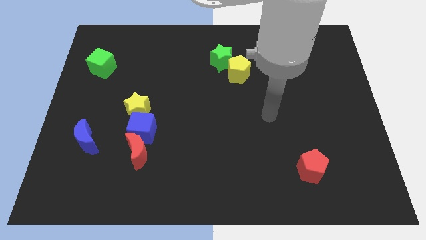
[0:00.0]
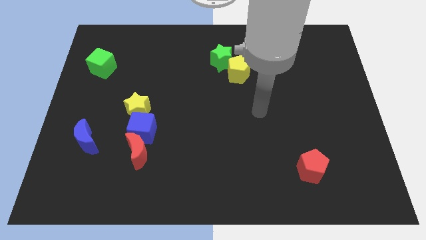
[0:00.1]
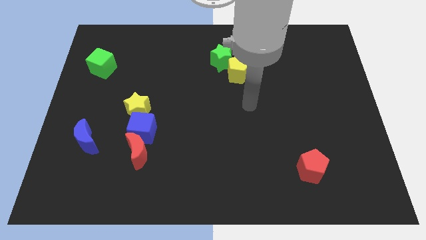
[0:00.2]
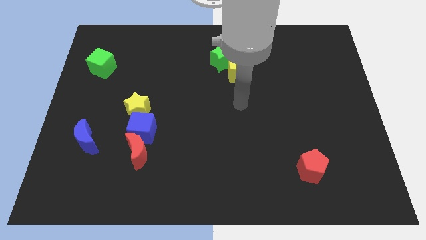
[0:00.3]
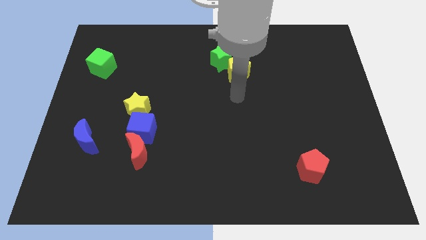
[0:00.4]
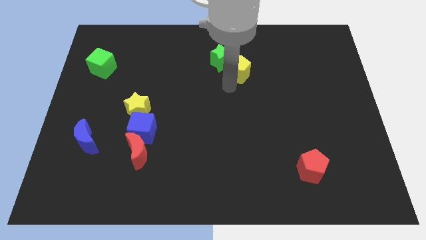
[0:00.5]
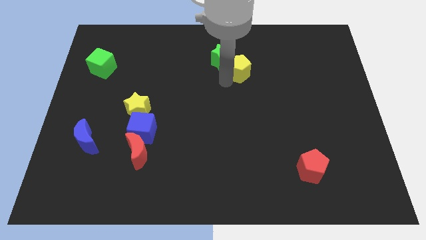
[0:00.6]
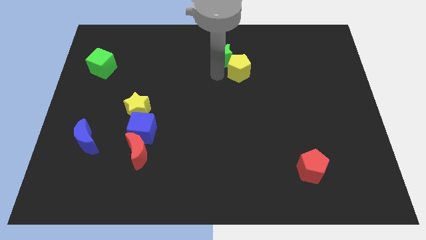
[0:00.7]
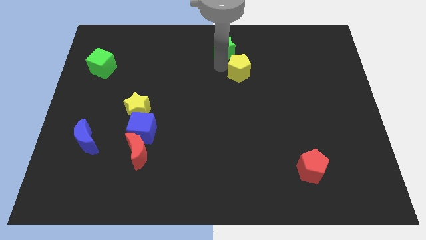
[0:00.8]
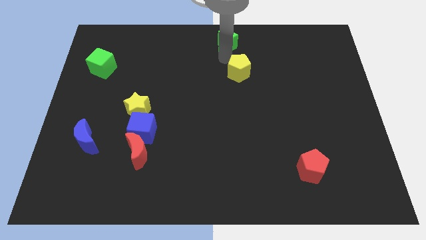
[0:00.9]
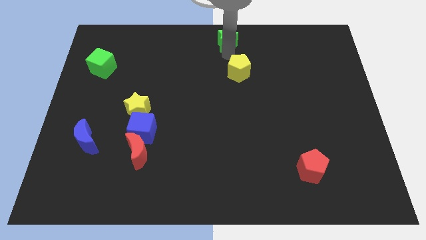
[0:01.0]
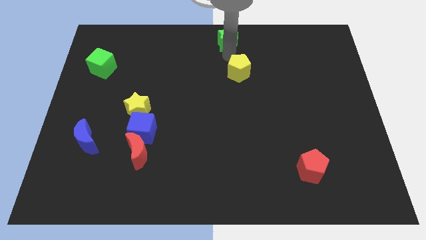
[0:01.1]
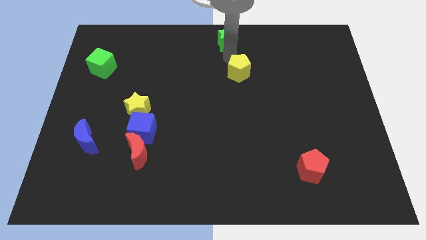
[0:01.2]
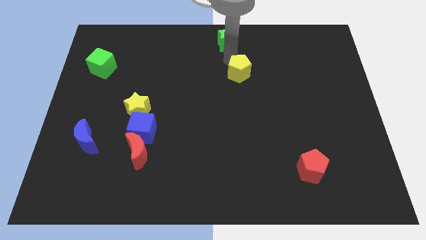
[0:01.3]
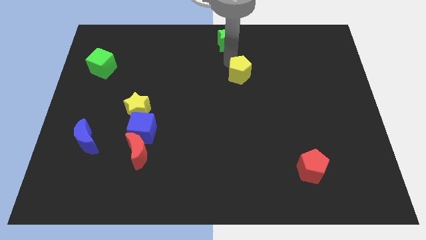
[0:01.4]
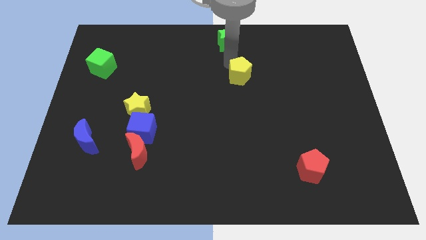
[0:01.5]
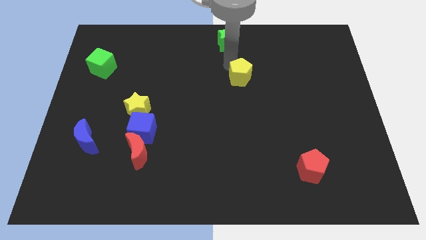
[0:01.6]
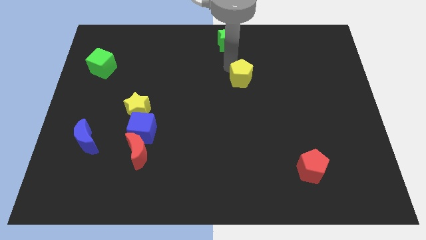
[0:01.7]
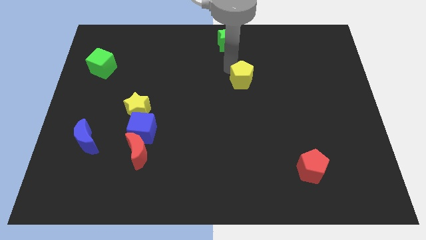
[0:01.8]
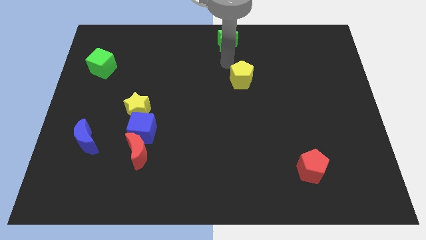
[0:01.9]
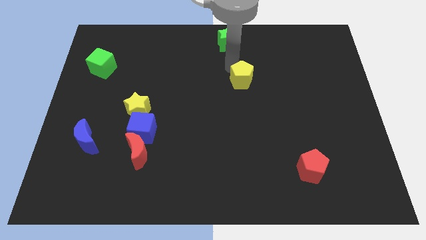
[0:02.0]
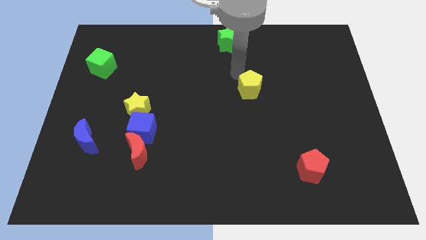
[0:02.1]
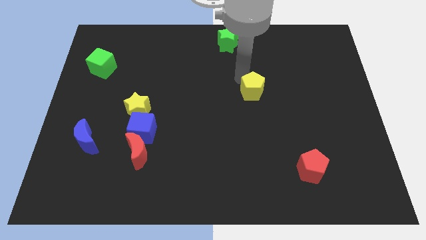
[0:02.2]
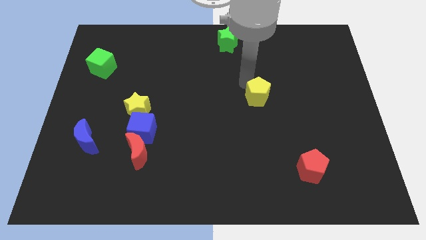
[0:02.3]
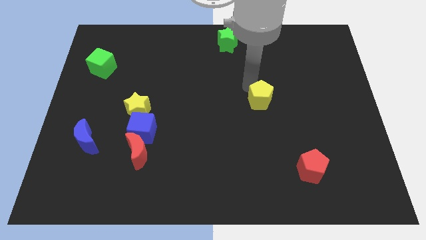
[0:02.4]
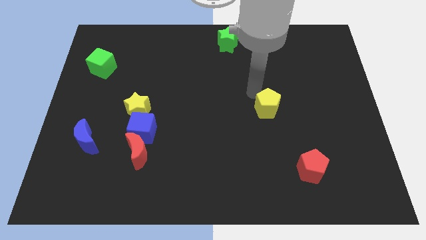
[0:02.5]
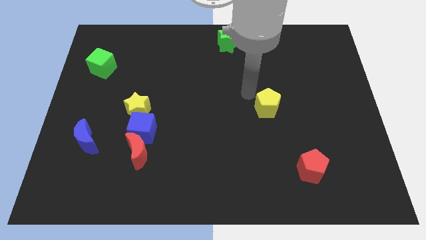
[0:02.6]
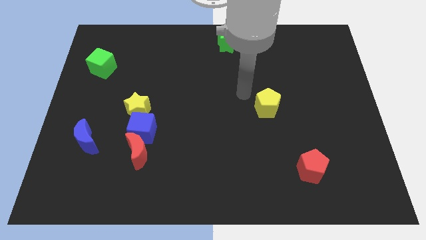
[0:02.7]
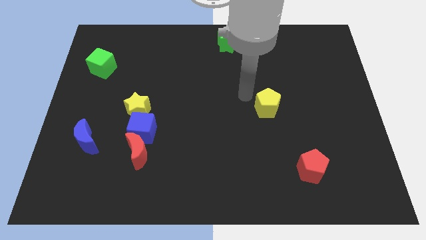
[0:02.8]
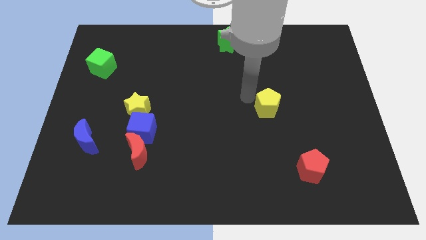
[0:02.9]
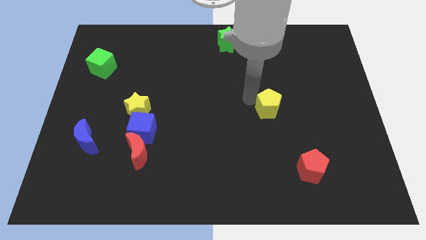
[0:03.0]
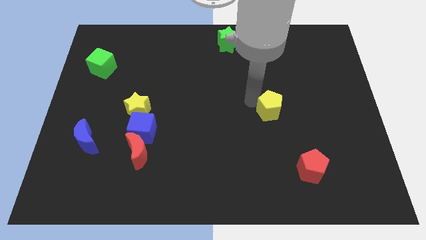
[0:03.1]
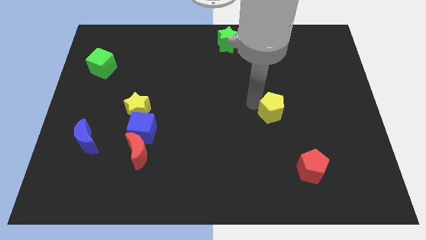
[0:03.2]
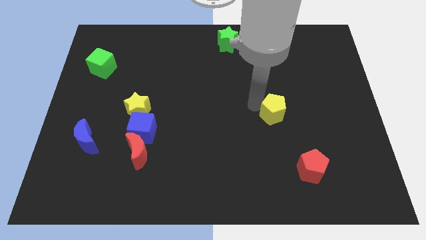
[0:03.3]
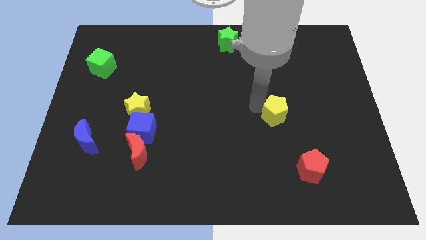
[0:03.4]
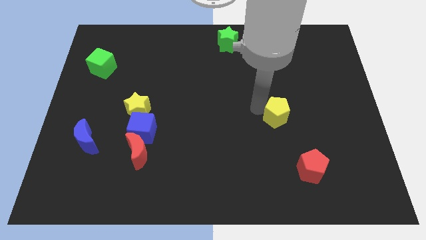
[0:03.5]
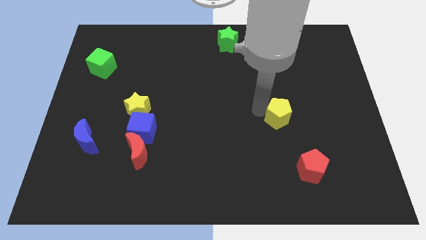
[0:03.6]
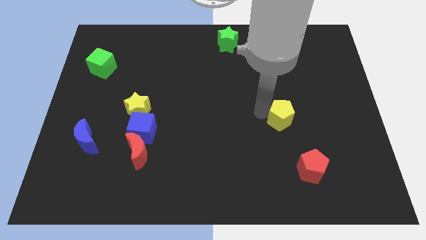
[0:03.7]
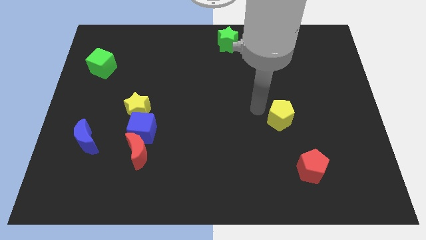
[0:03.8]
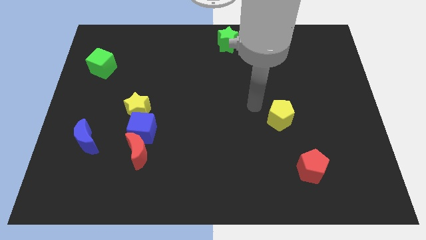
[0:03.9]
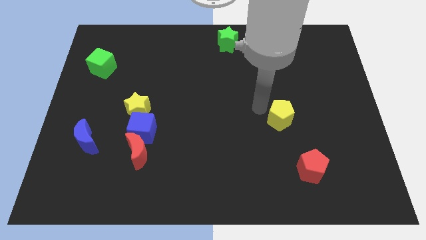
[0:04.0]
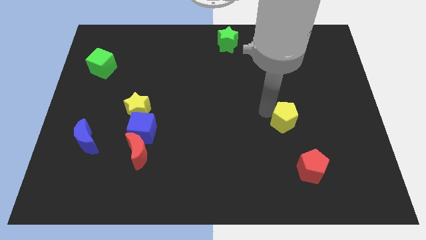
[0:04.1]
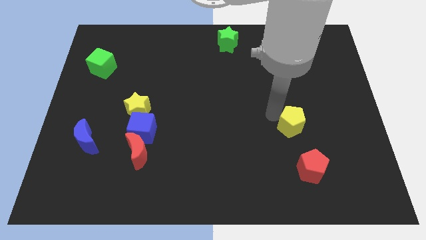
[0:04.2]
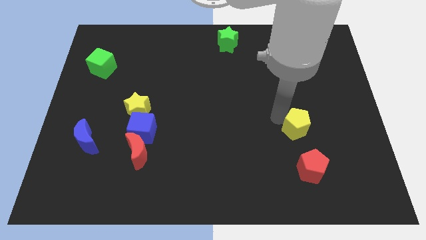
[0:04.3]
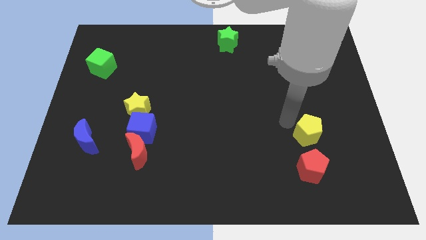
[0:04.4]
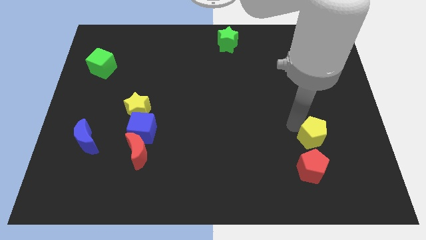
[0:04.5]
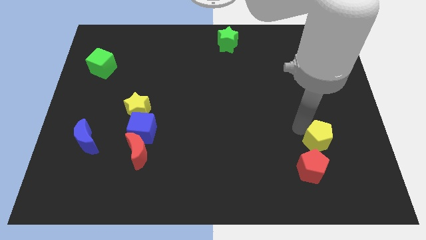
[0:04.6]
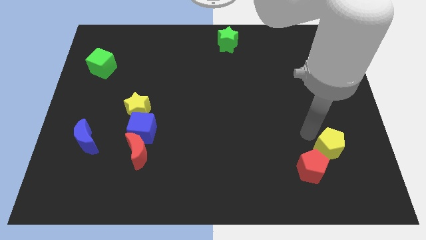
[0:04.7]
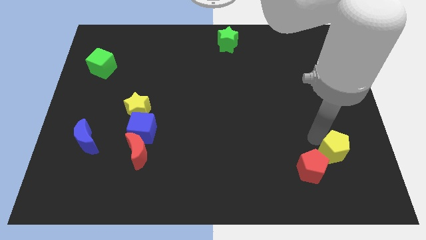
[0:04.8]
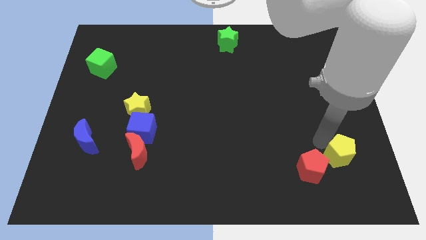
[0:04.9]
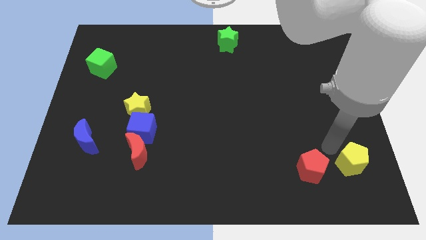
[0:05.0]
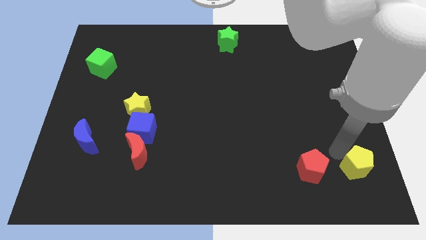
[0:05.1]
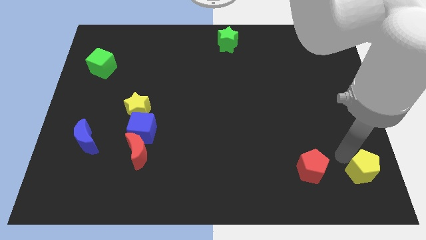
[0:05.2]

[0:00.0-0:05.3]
put the yellow pentagon to the bottom right of the board

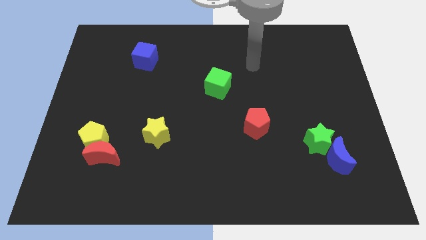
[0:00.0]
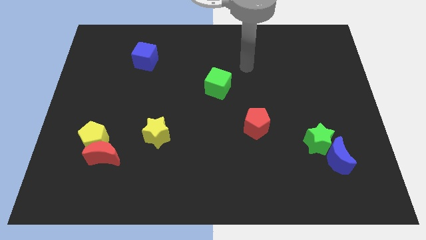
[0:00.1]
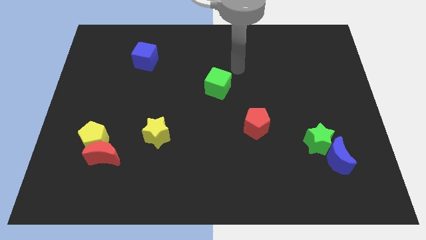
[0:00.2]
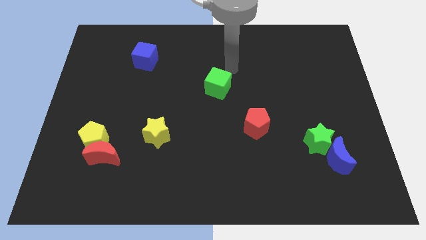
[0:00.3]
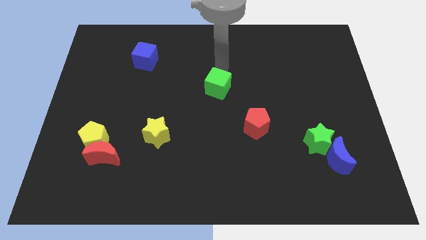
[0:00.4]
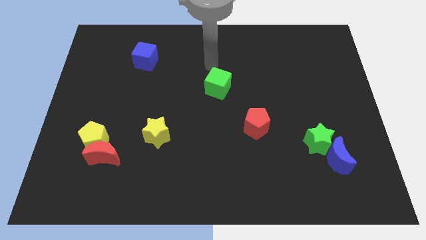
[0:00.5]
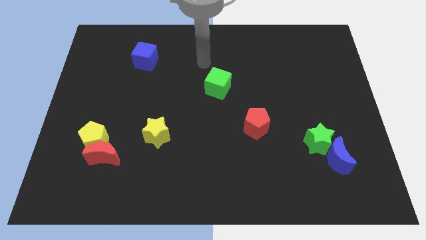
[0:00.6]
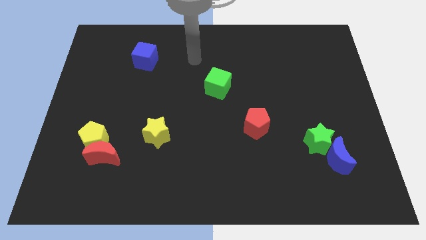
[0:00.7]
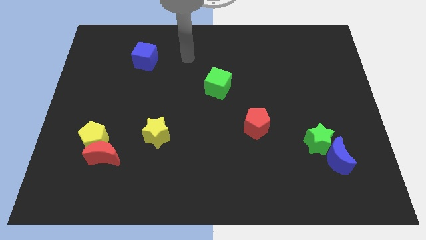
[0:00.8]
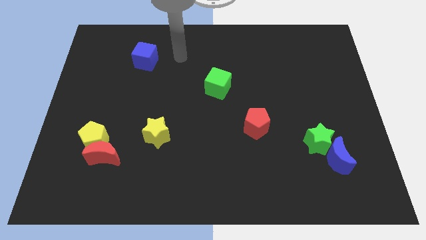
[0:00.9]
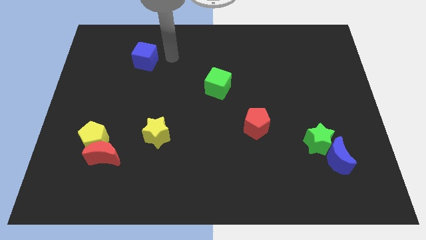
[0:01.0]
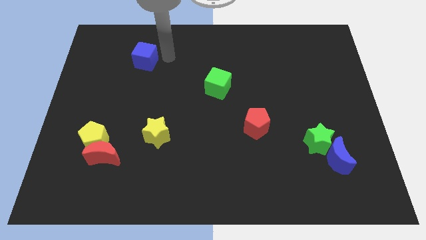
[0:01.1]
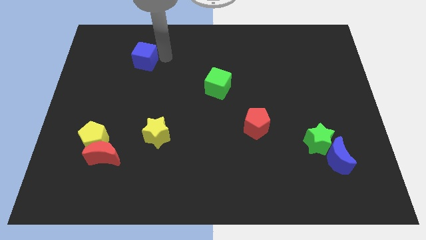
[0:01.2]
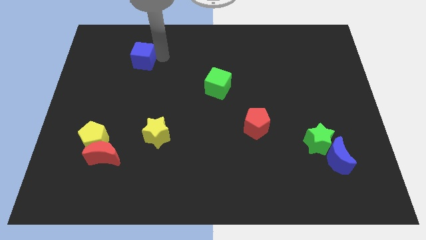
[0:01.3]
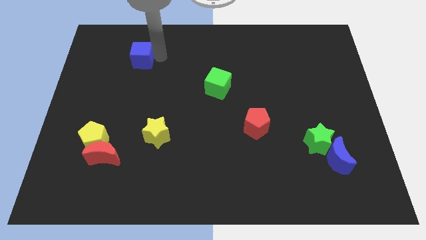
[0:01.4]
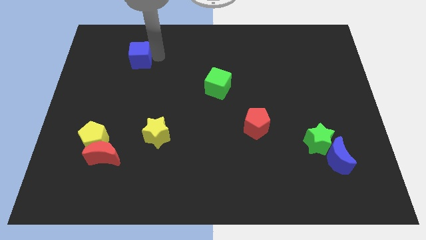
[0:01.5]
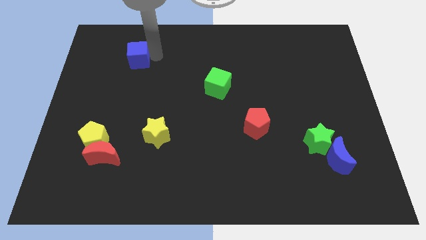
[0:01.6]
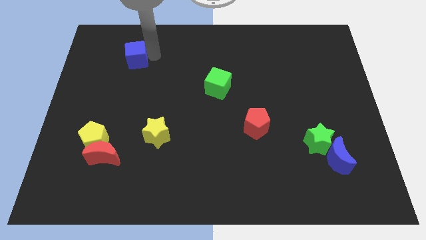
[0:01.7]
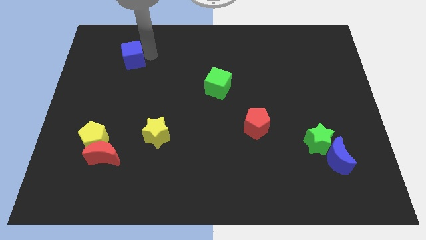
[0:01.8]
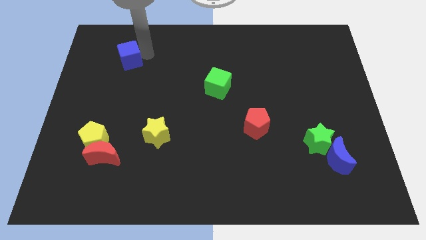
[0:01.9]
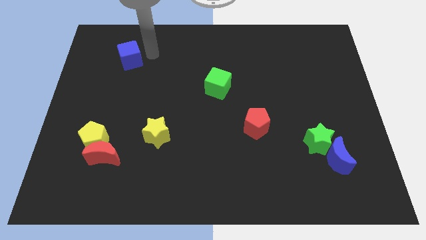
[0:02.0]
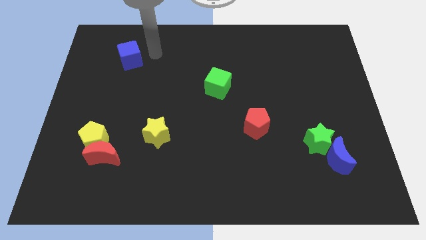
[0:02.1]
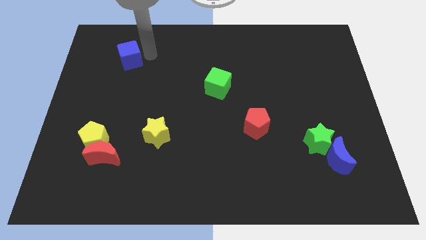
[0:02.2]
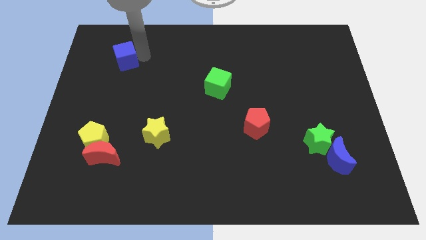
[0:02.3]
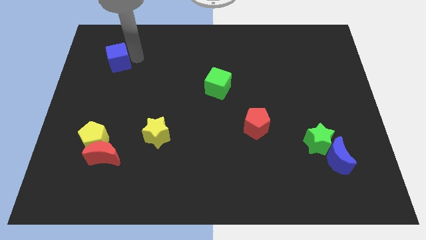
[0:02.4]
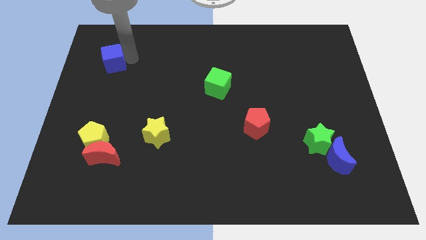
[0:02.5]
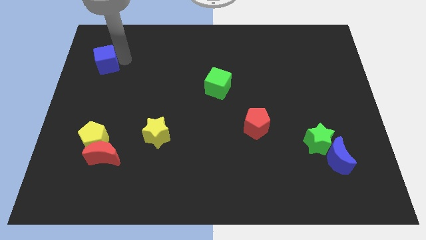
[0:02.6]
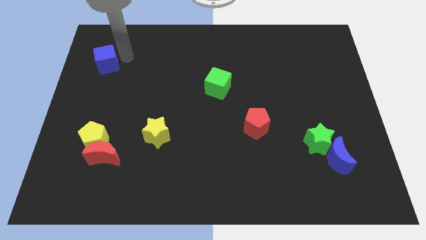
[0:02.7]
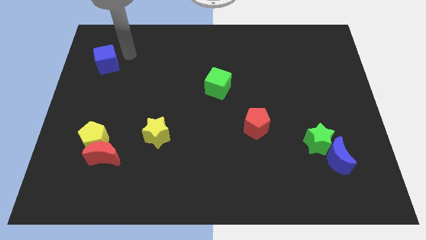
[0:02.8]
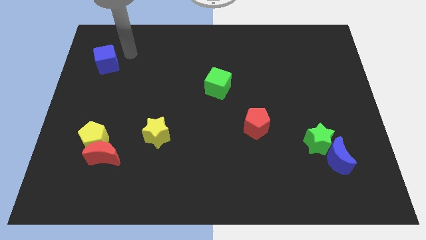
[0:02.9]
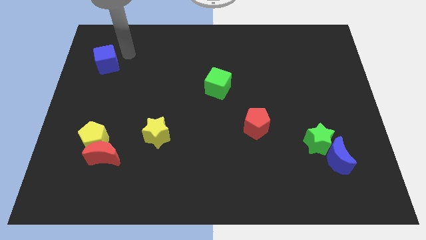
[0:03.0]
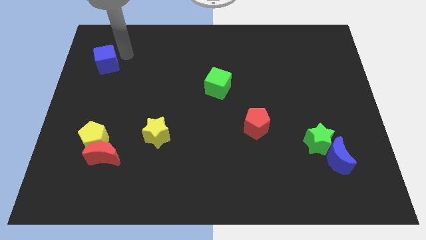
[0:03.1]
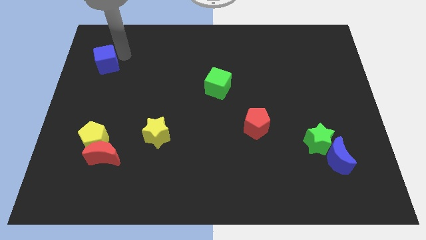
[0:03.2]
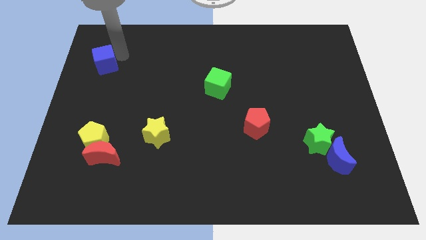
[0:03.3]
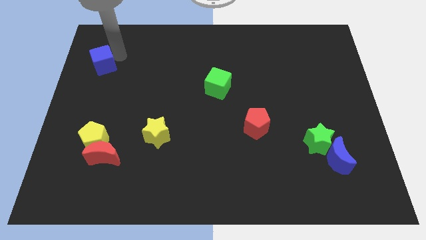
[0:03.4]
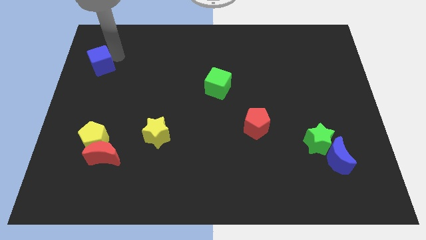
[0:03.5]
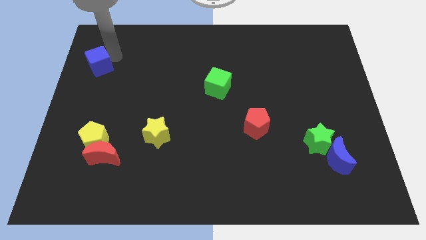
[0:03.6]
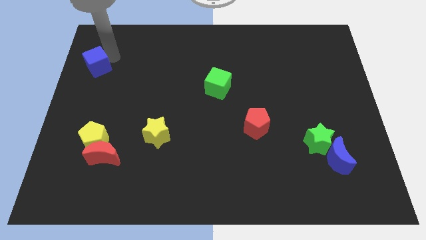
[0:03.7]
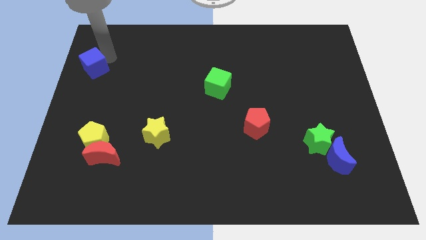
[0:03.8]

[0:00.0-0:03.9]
put the blue cube to the center left
